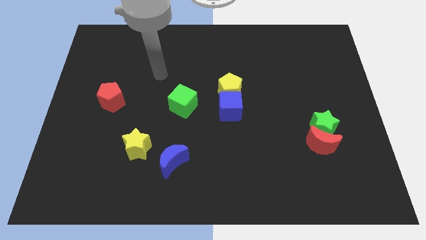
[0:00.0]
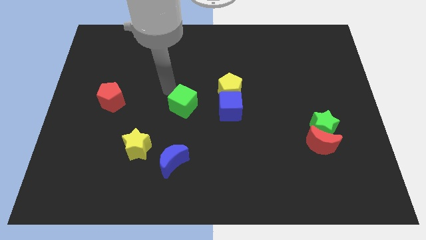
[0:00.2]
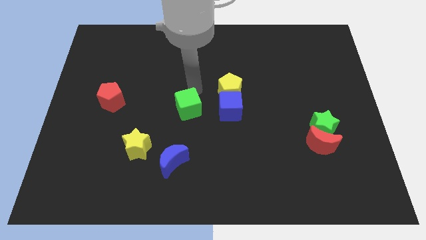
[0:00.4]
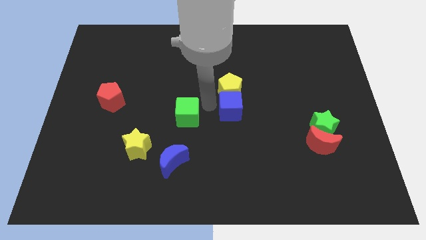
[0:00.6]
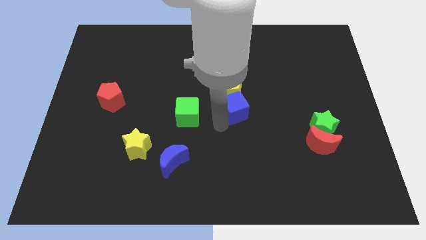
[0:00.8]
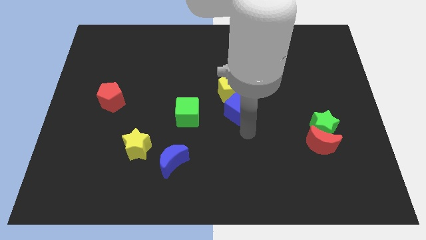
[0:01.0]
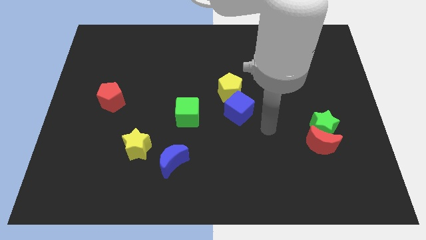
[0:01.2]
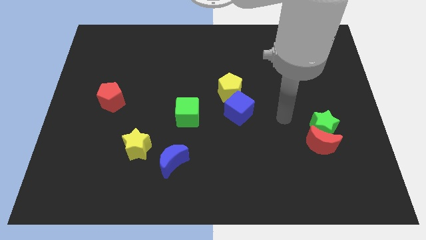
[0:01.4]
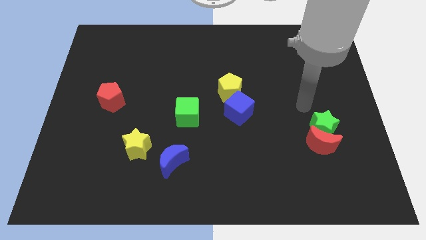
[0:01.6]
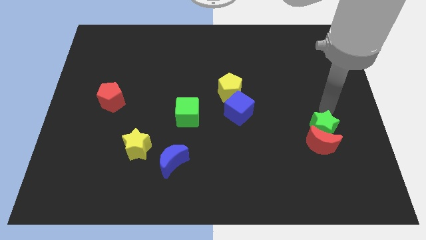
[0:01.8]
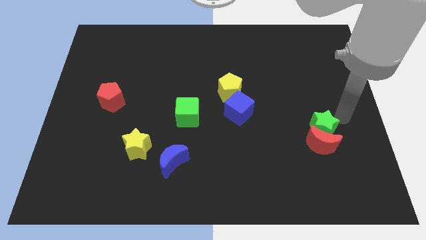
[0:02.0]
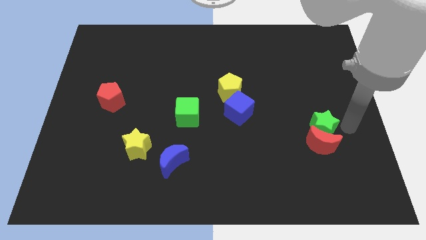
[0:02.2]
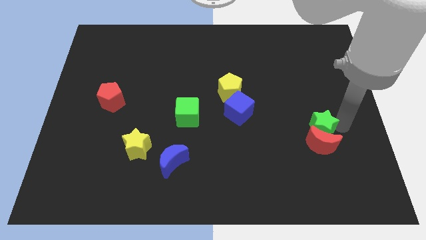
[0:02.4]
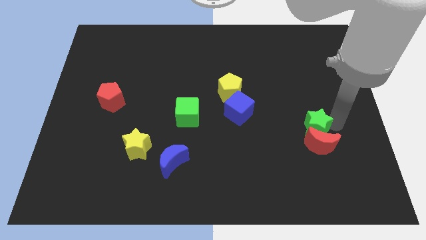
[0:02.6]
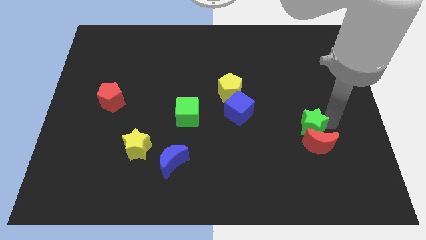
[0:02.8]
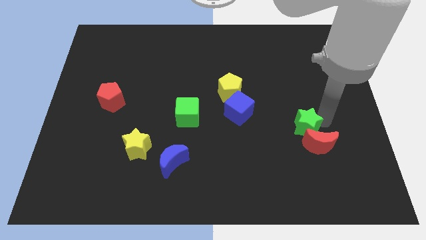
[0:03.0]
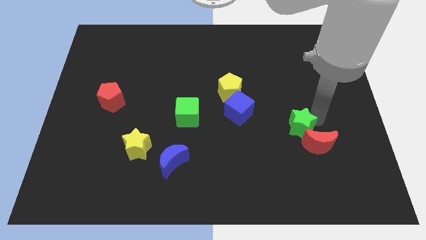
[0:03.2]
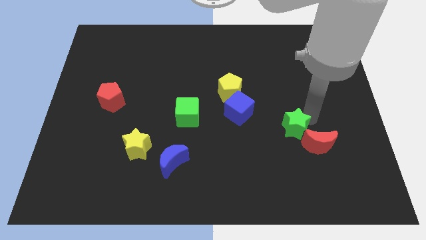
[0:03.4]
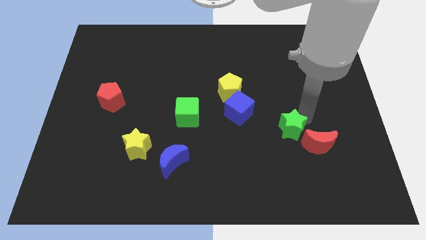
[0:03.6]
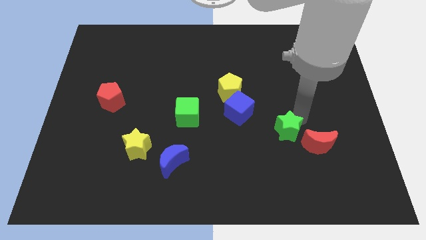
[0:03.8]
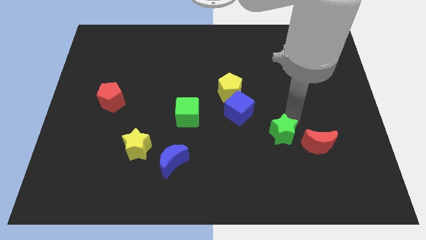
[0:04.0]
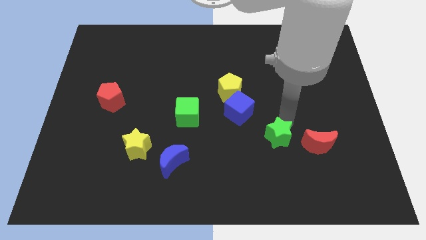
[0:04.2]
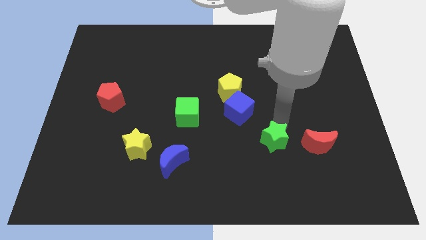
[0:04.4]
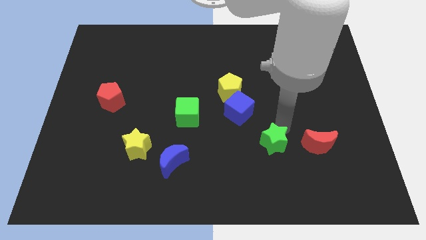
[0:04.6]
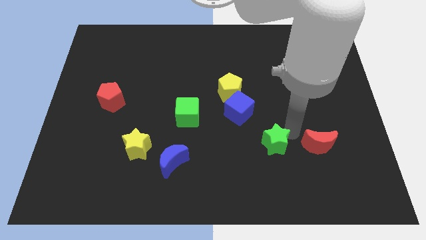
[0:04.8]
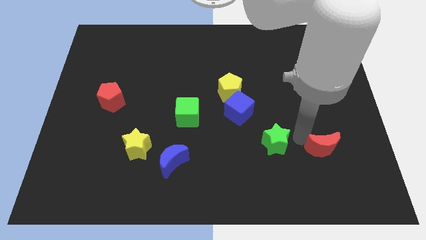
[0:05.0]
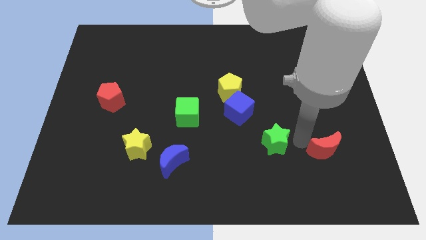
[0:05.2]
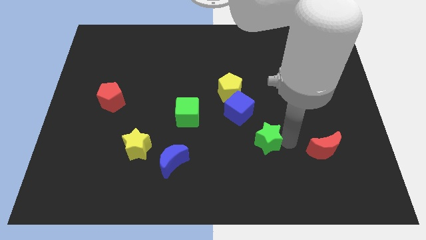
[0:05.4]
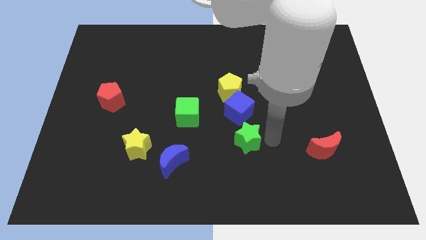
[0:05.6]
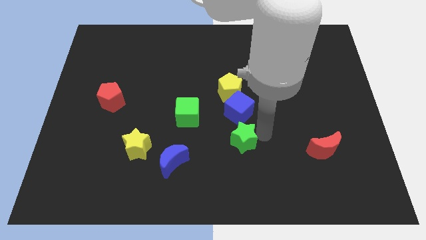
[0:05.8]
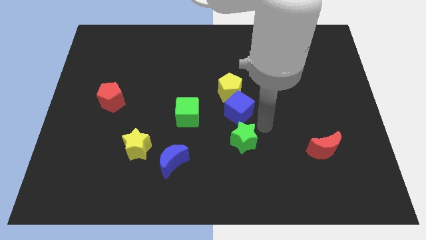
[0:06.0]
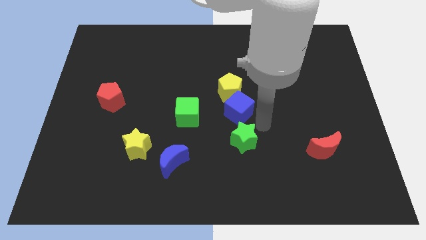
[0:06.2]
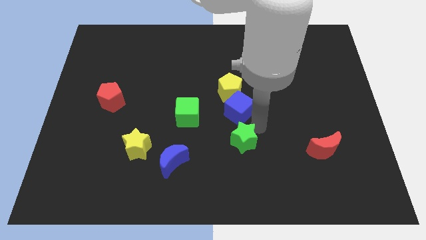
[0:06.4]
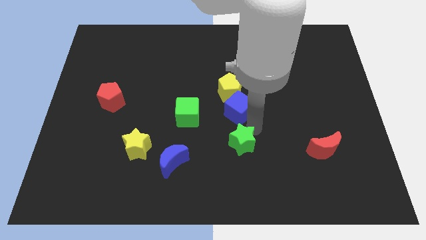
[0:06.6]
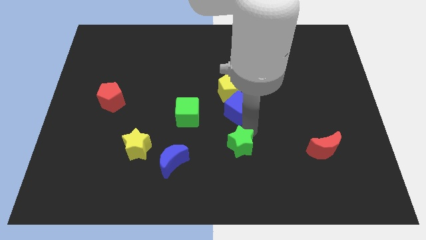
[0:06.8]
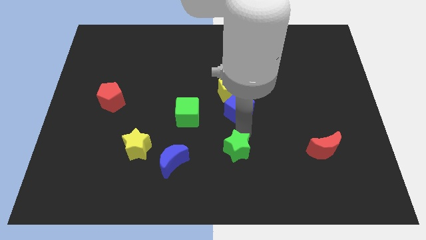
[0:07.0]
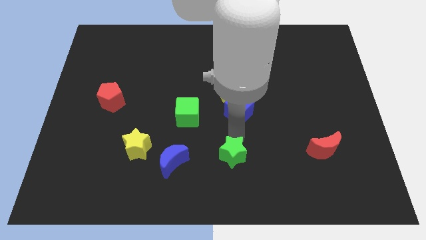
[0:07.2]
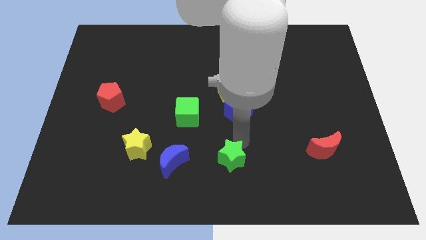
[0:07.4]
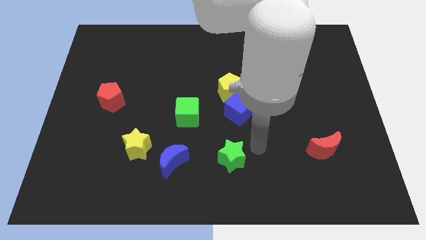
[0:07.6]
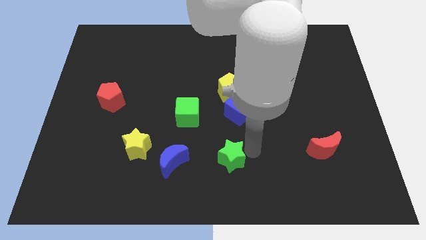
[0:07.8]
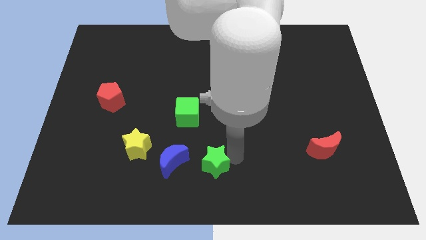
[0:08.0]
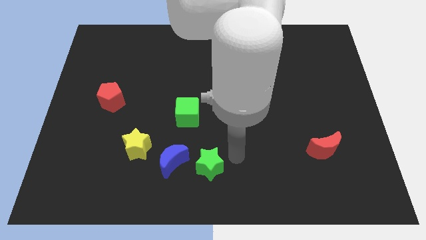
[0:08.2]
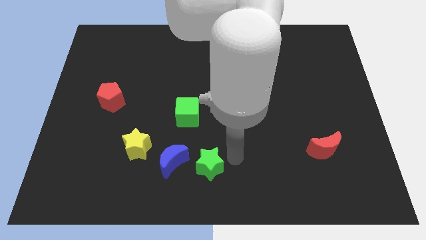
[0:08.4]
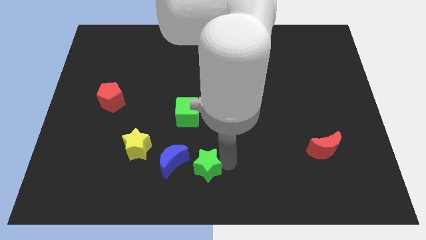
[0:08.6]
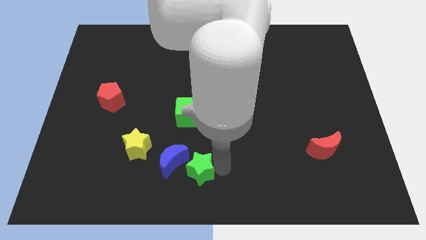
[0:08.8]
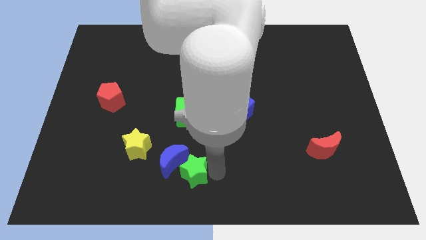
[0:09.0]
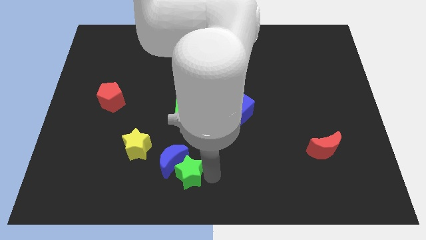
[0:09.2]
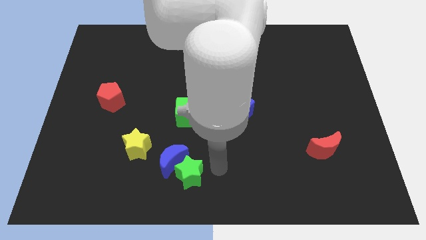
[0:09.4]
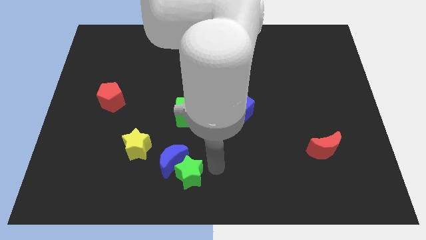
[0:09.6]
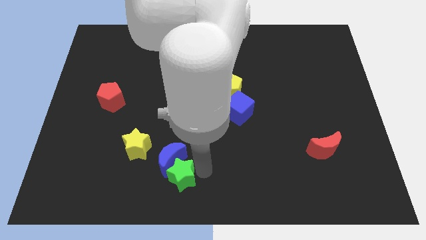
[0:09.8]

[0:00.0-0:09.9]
move the green star to the bottom right side of the yellow star

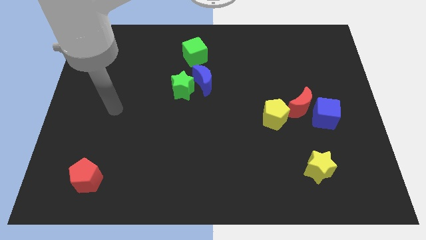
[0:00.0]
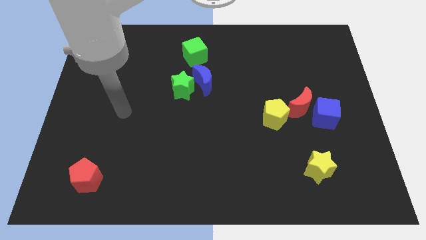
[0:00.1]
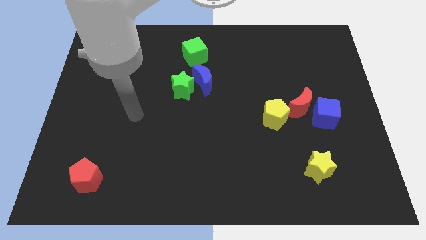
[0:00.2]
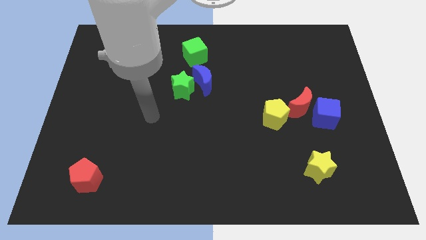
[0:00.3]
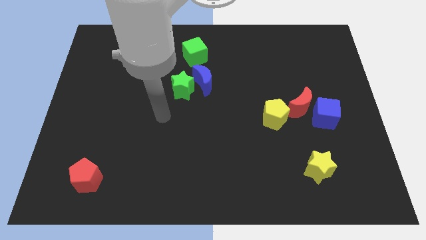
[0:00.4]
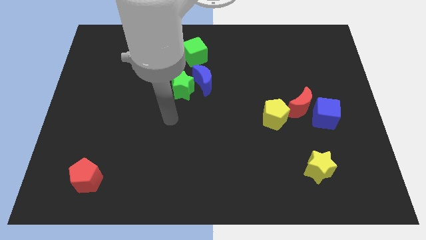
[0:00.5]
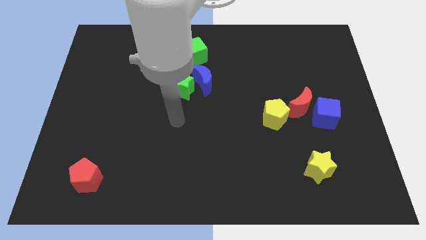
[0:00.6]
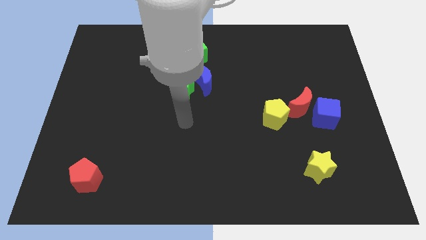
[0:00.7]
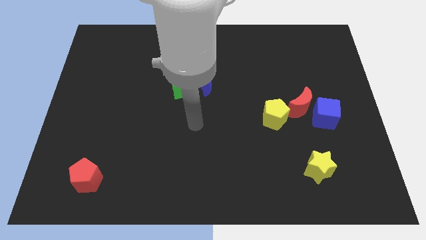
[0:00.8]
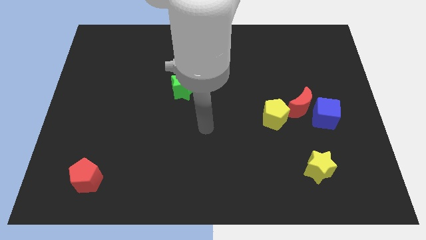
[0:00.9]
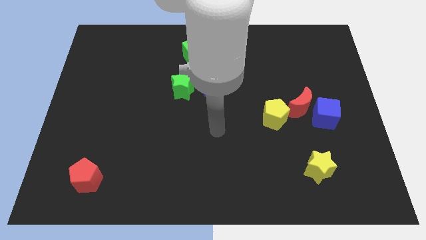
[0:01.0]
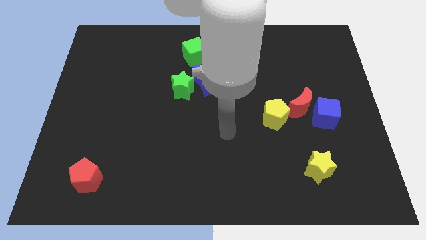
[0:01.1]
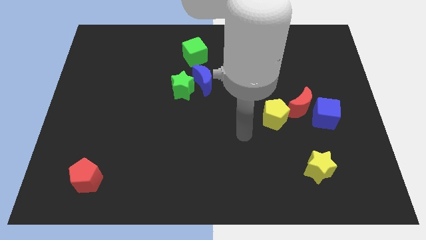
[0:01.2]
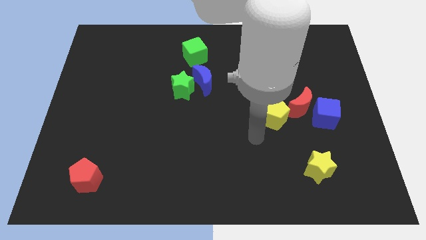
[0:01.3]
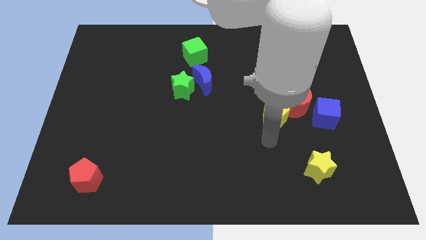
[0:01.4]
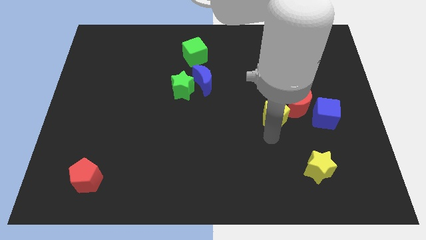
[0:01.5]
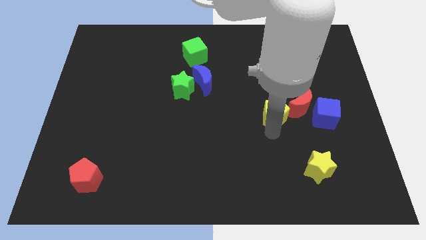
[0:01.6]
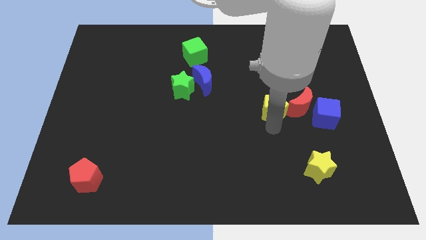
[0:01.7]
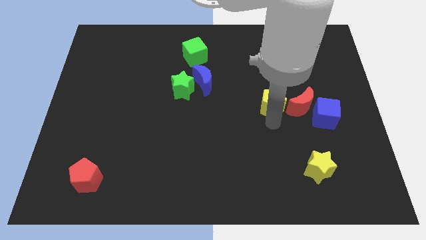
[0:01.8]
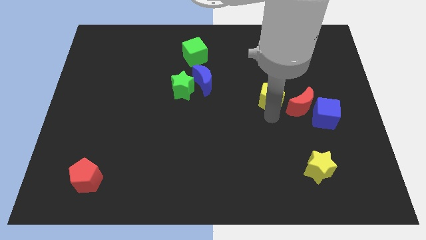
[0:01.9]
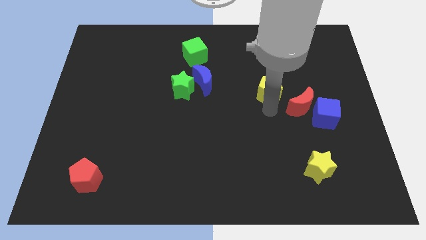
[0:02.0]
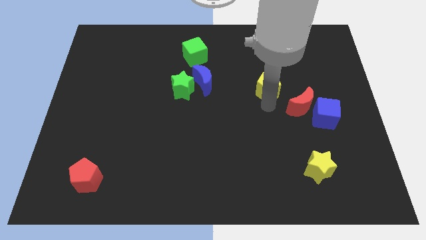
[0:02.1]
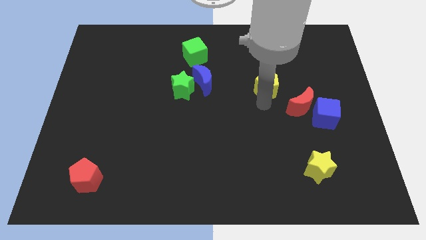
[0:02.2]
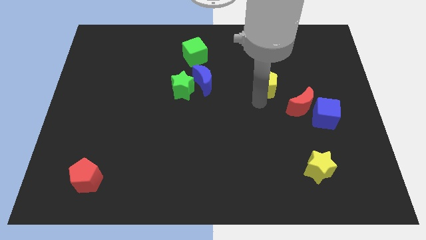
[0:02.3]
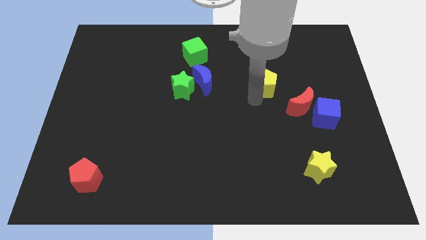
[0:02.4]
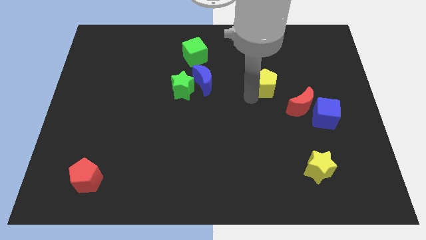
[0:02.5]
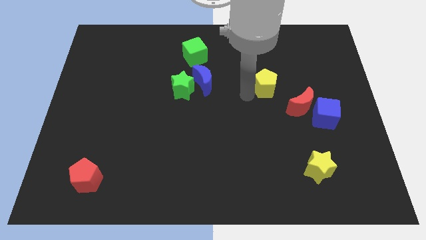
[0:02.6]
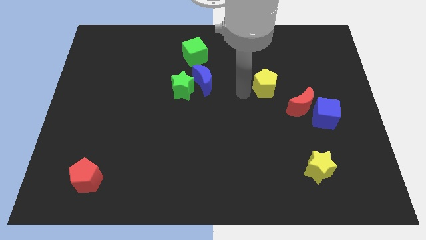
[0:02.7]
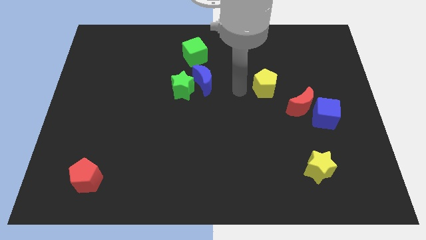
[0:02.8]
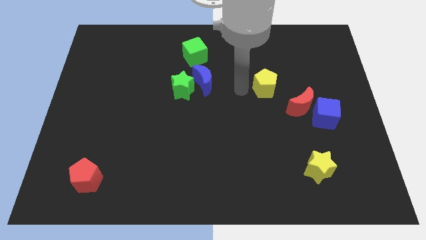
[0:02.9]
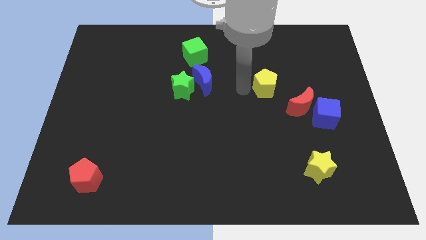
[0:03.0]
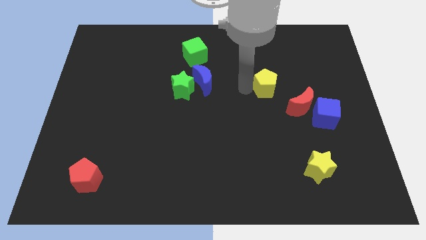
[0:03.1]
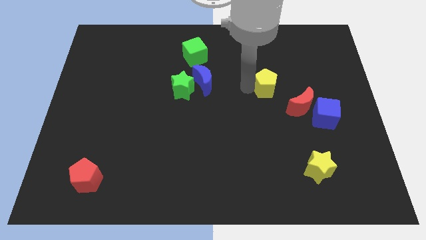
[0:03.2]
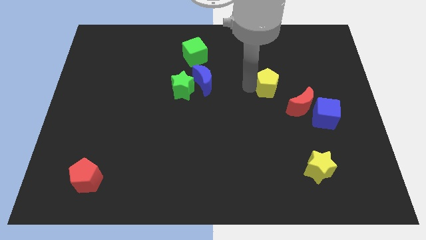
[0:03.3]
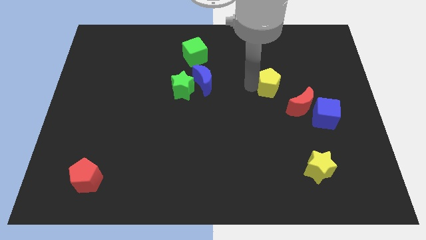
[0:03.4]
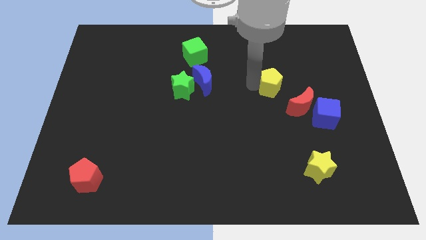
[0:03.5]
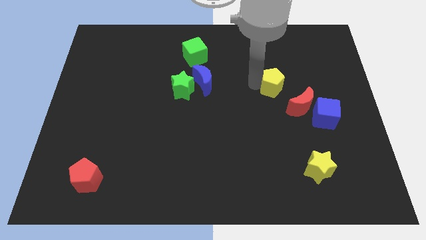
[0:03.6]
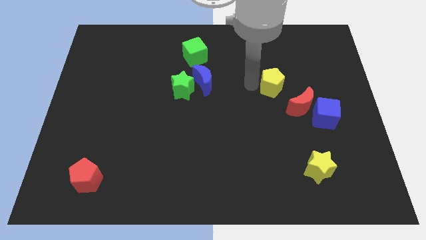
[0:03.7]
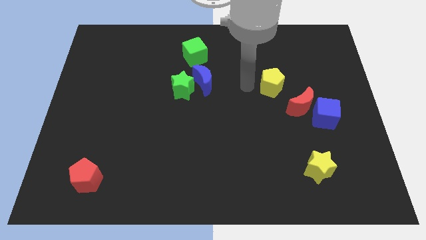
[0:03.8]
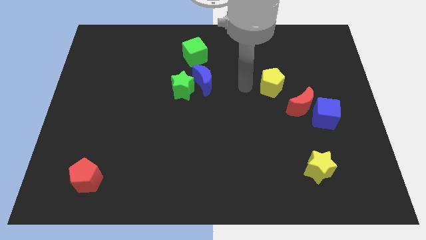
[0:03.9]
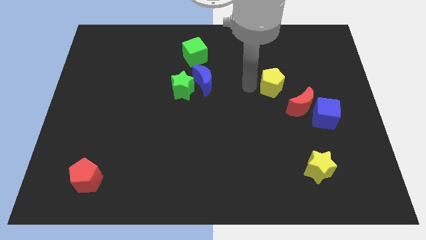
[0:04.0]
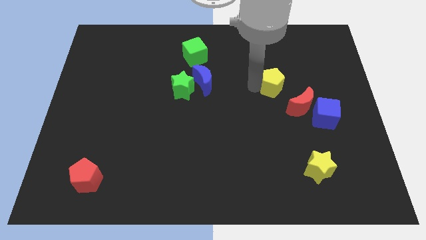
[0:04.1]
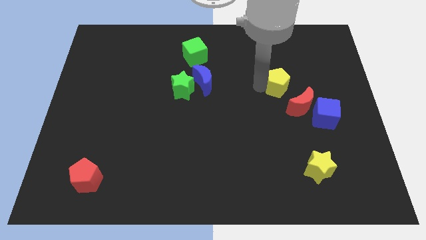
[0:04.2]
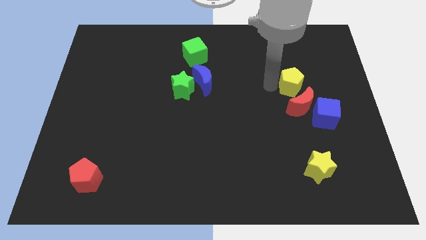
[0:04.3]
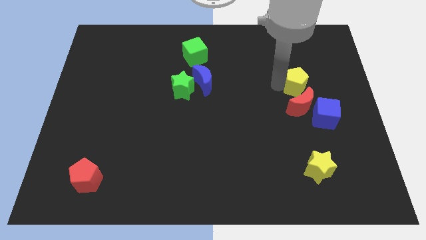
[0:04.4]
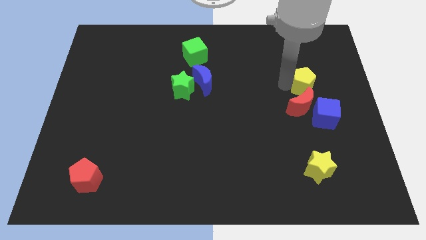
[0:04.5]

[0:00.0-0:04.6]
push the yellow pentagon to the top right of the red moon
